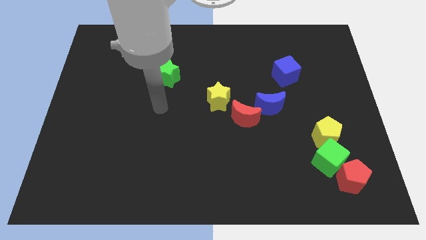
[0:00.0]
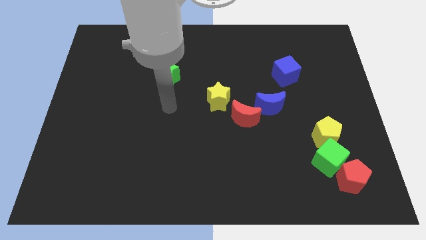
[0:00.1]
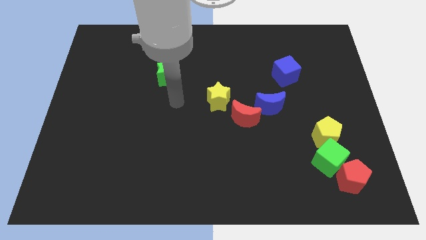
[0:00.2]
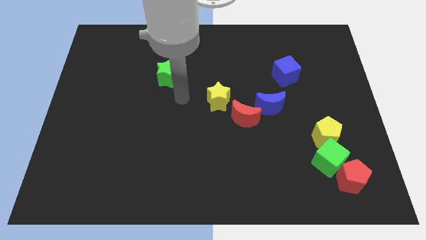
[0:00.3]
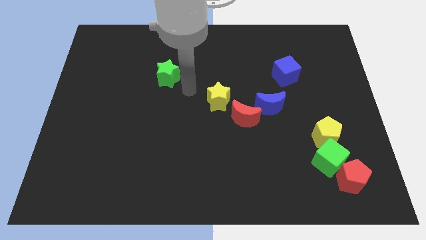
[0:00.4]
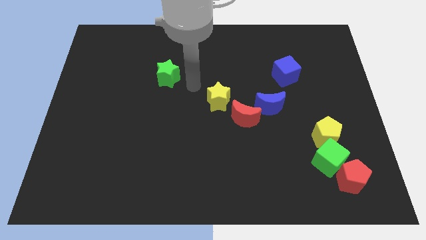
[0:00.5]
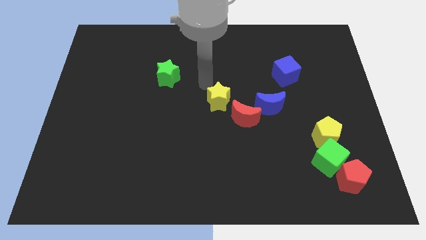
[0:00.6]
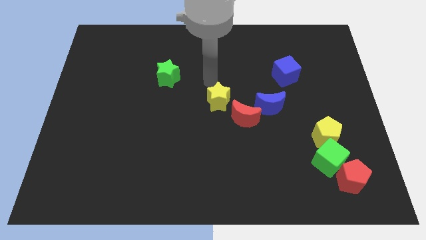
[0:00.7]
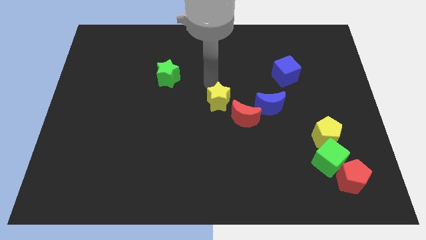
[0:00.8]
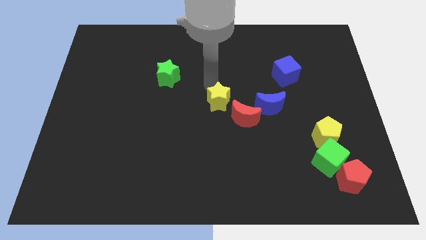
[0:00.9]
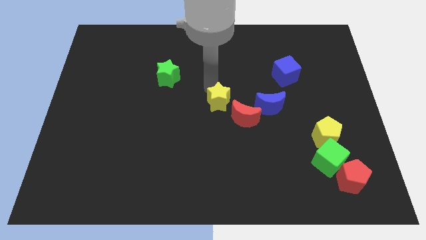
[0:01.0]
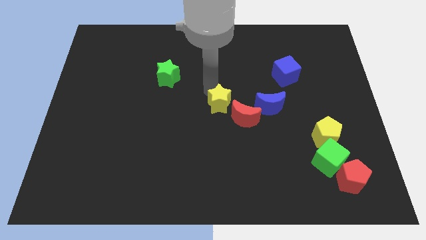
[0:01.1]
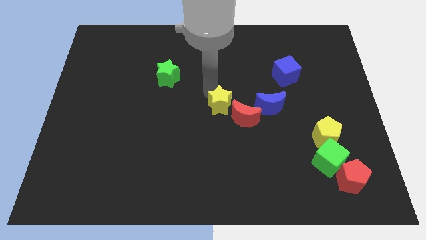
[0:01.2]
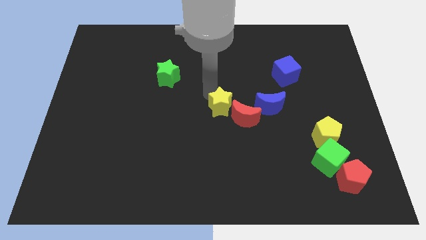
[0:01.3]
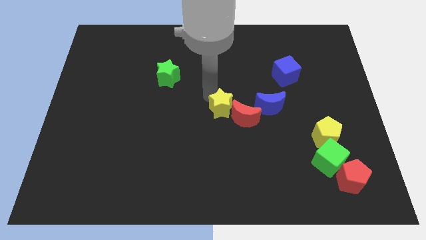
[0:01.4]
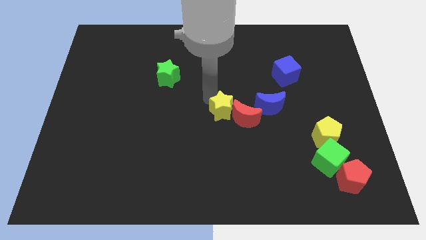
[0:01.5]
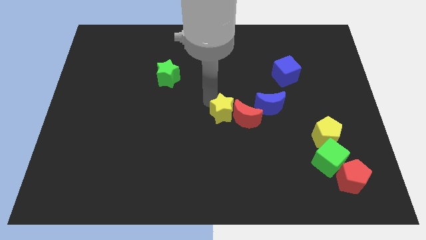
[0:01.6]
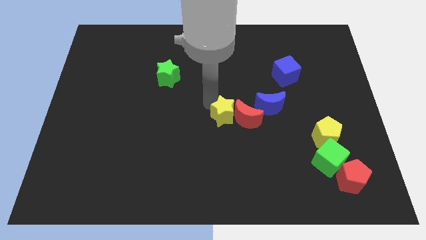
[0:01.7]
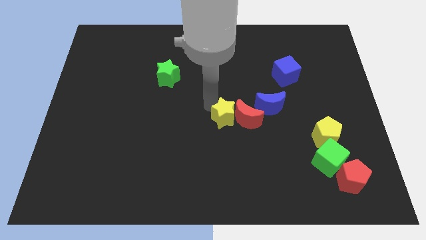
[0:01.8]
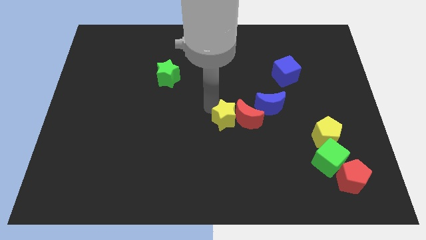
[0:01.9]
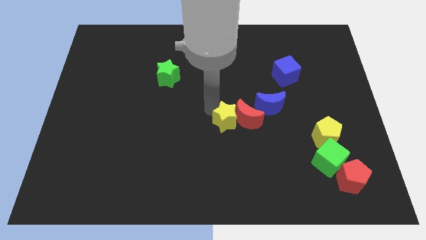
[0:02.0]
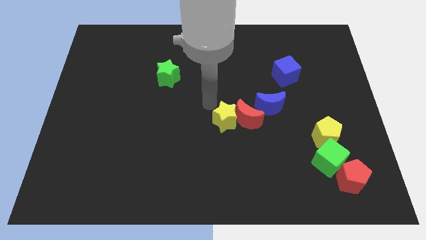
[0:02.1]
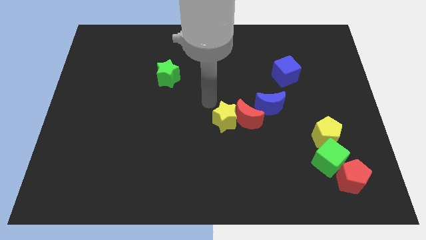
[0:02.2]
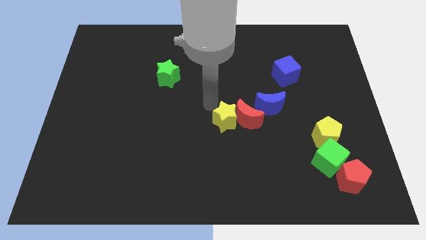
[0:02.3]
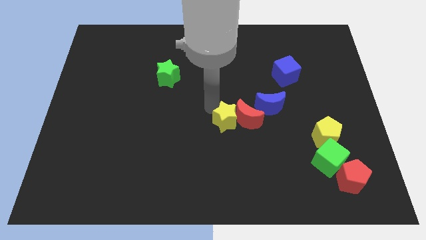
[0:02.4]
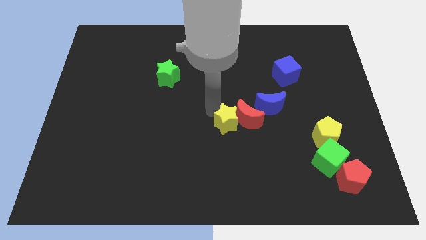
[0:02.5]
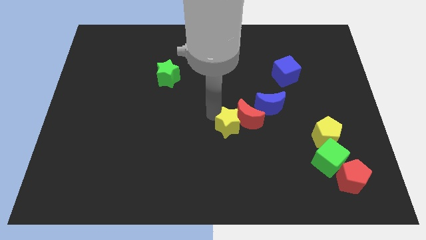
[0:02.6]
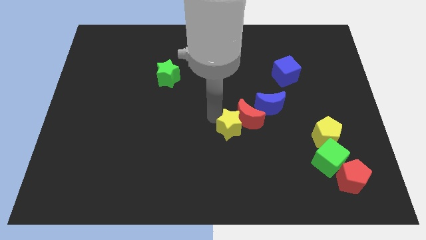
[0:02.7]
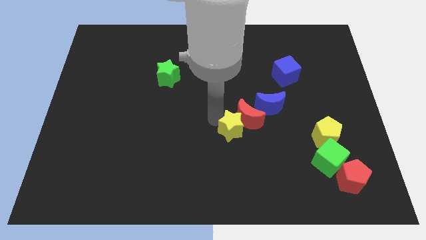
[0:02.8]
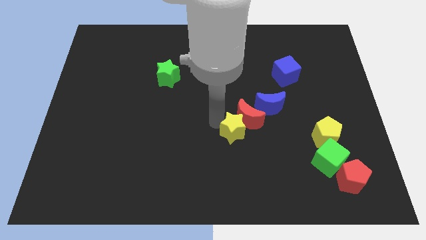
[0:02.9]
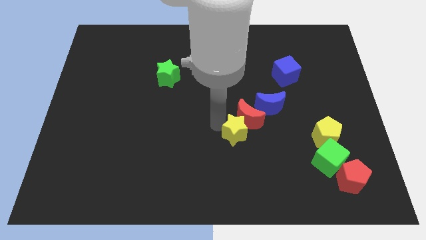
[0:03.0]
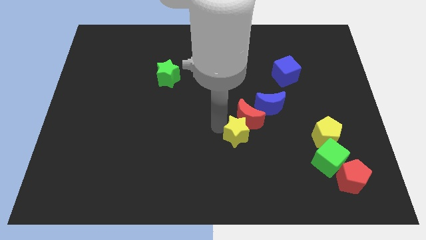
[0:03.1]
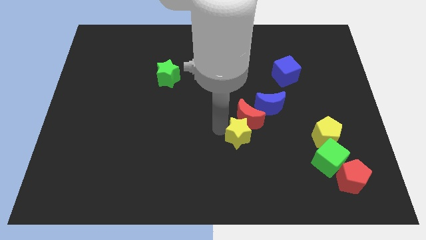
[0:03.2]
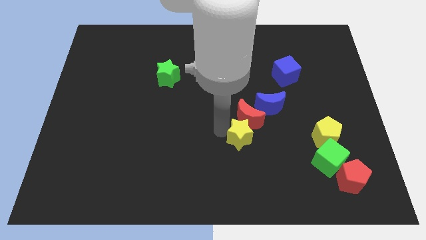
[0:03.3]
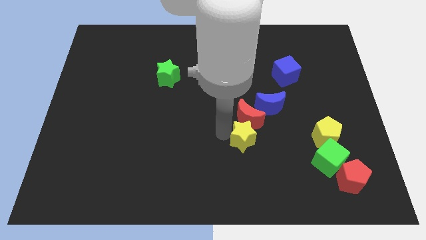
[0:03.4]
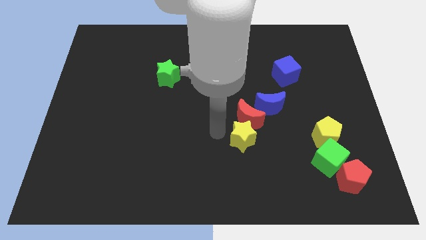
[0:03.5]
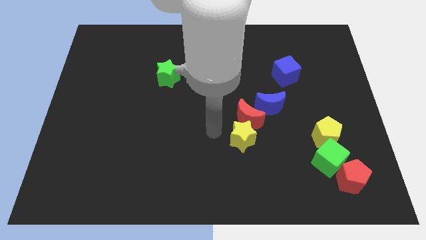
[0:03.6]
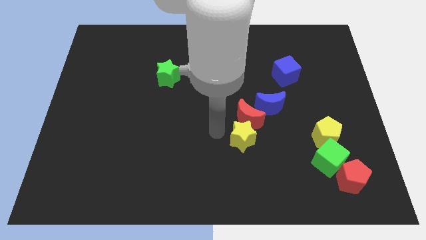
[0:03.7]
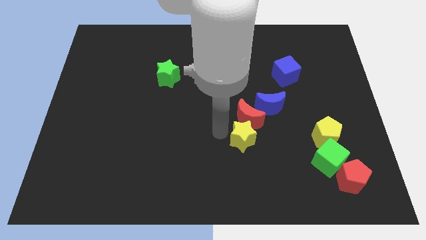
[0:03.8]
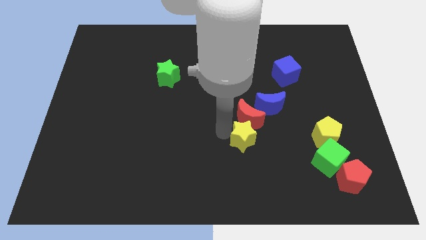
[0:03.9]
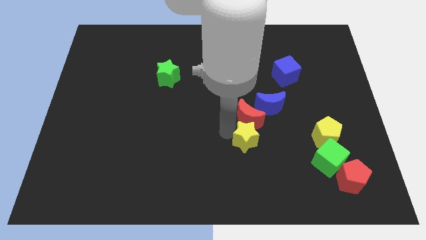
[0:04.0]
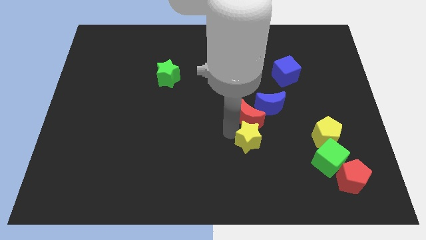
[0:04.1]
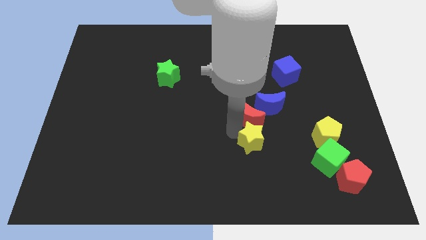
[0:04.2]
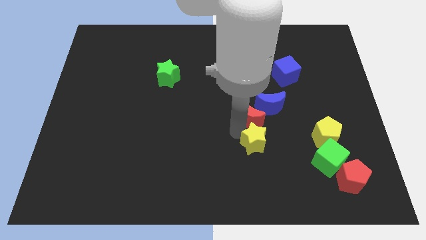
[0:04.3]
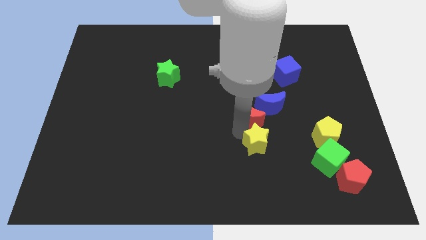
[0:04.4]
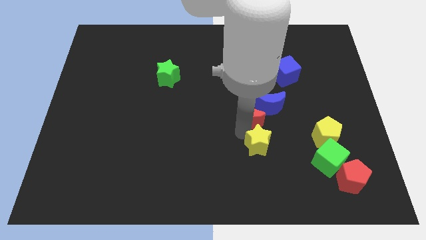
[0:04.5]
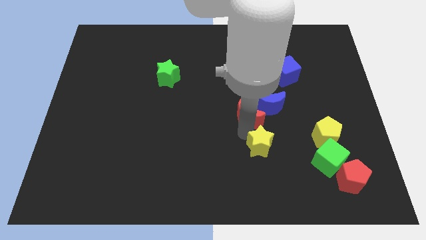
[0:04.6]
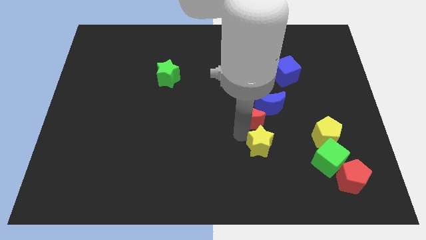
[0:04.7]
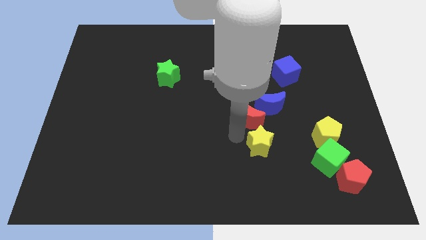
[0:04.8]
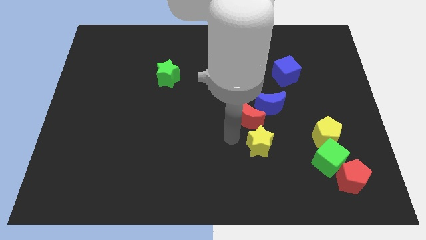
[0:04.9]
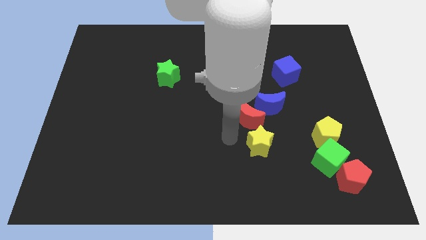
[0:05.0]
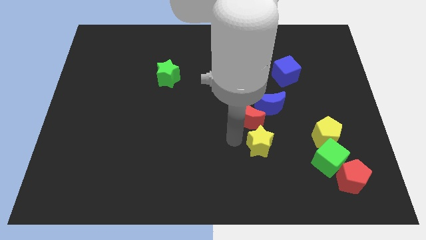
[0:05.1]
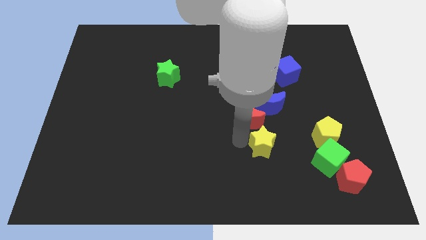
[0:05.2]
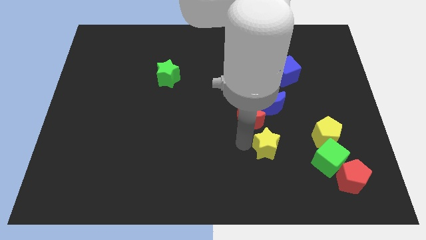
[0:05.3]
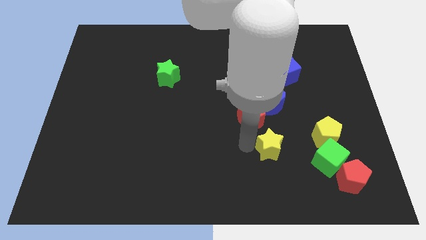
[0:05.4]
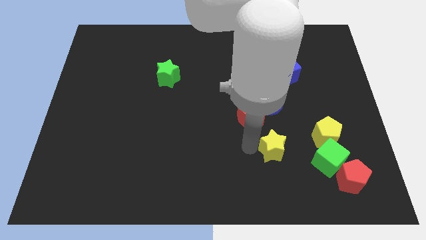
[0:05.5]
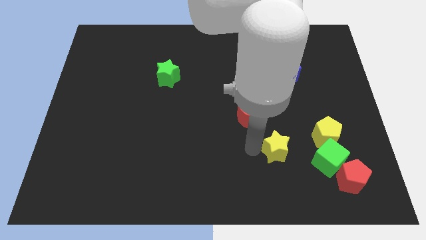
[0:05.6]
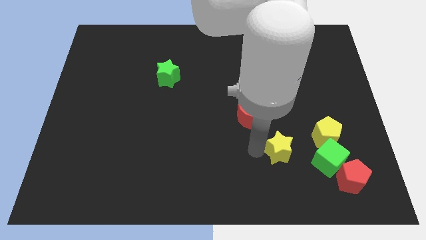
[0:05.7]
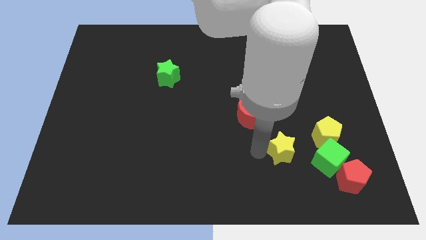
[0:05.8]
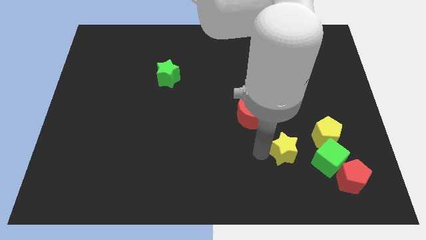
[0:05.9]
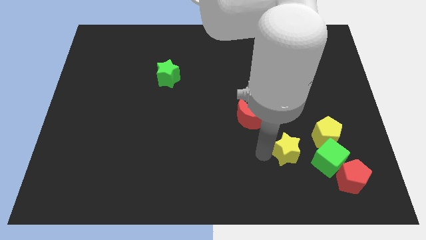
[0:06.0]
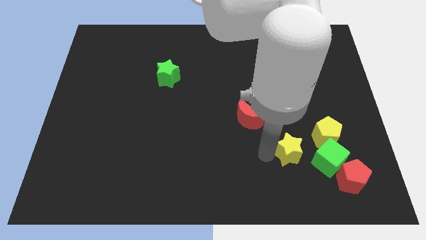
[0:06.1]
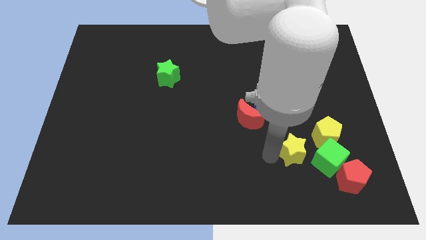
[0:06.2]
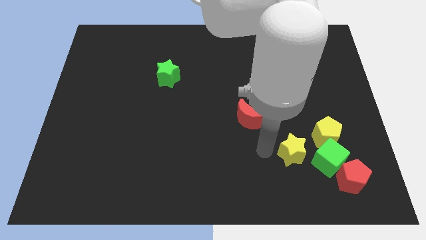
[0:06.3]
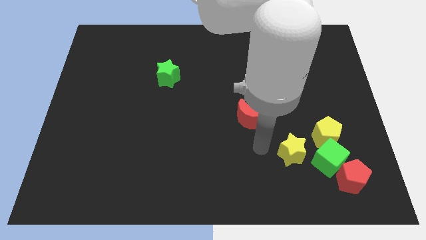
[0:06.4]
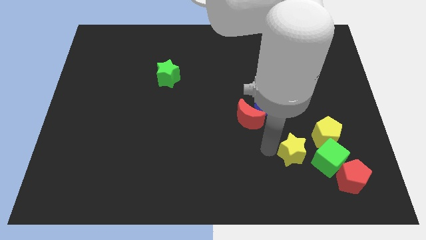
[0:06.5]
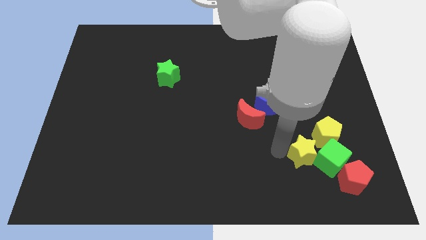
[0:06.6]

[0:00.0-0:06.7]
put the yellow star towards the green cube

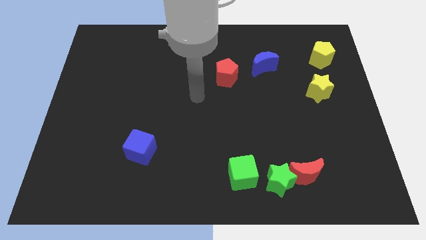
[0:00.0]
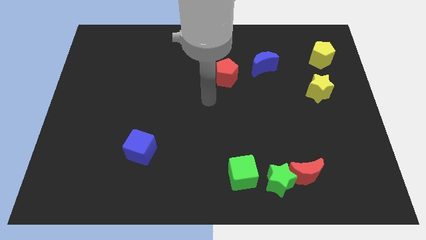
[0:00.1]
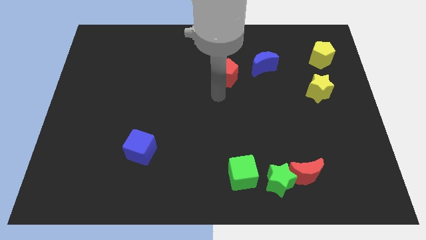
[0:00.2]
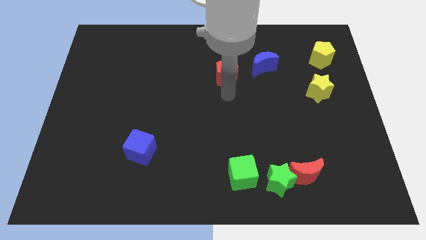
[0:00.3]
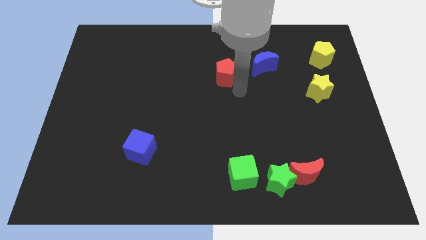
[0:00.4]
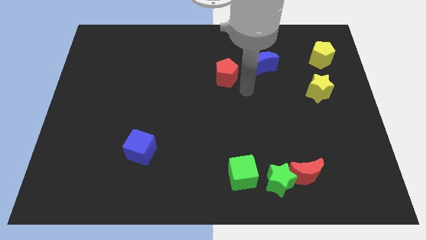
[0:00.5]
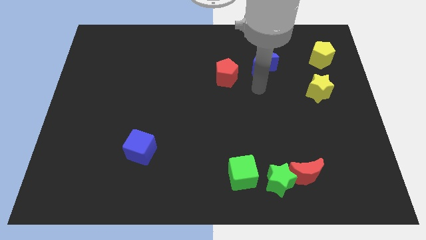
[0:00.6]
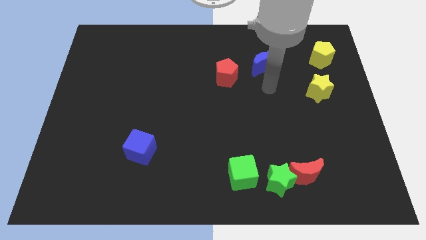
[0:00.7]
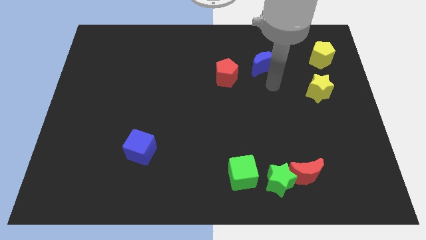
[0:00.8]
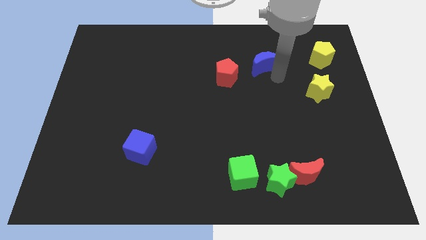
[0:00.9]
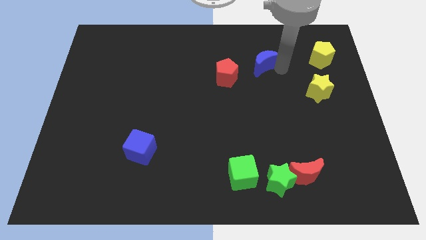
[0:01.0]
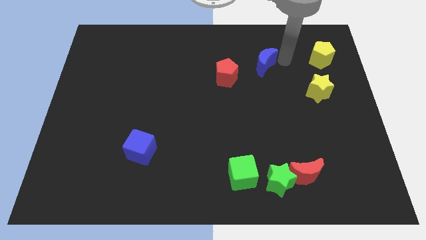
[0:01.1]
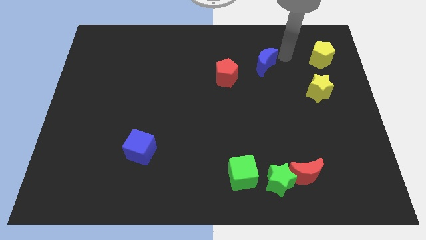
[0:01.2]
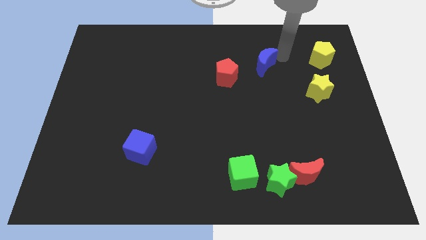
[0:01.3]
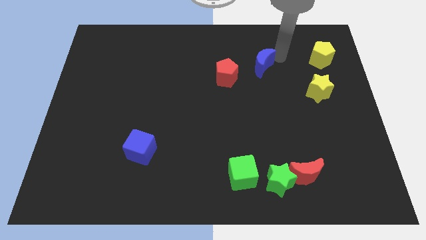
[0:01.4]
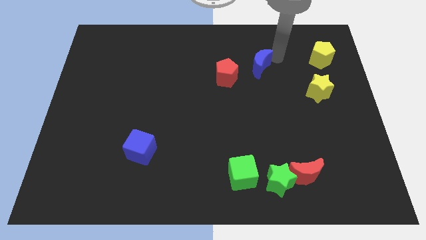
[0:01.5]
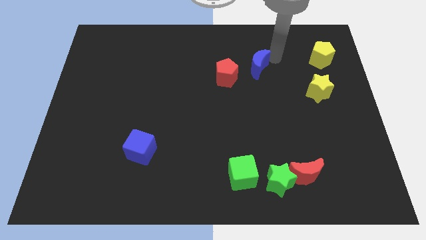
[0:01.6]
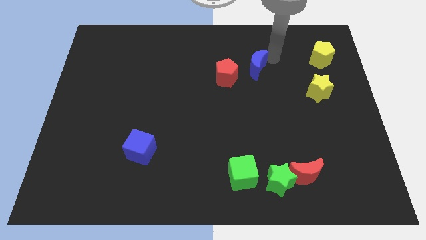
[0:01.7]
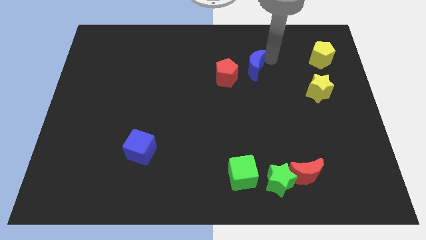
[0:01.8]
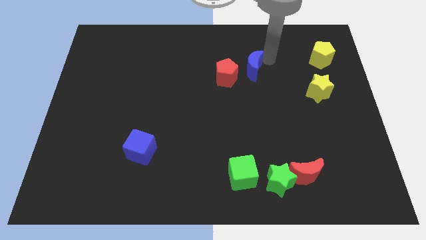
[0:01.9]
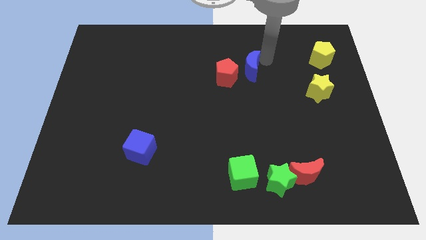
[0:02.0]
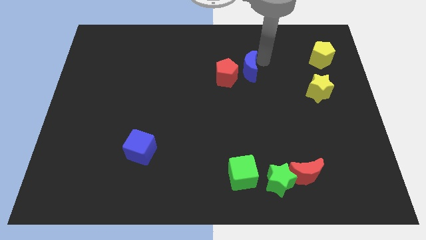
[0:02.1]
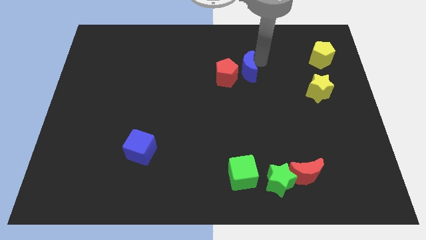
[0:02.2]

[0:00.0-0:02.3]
move the blue moon towards the red pentagon
